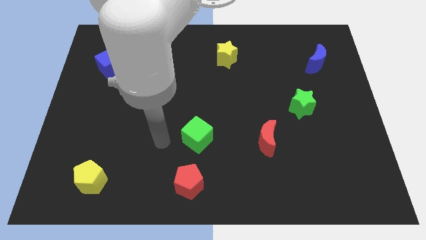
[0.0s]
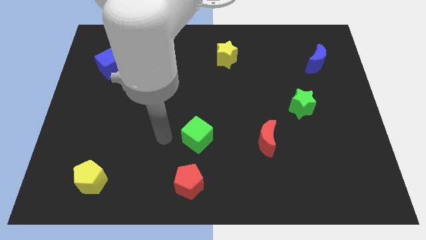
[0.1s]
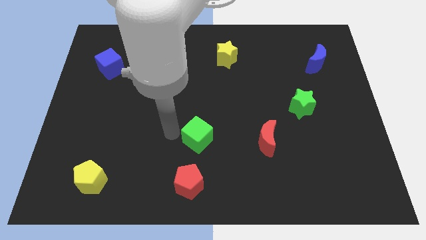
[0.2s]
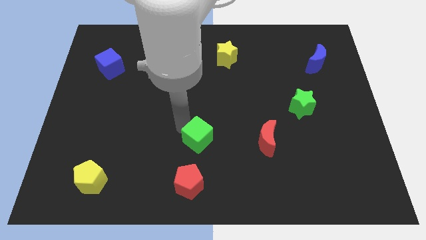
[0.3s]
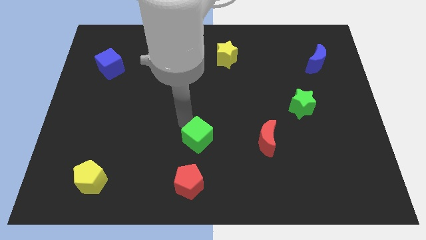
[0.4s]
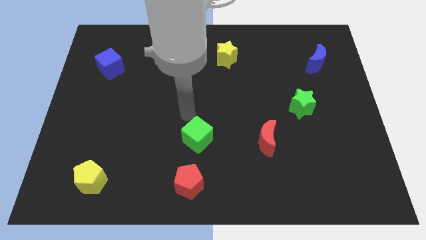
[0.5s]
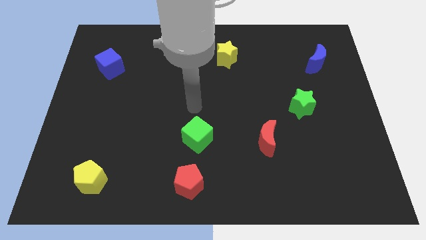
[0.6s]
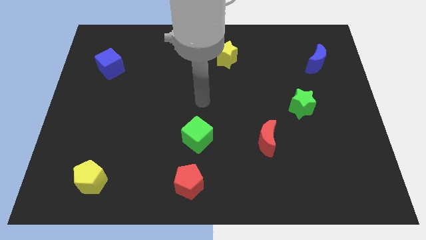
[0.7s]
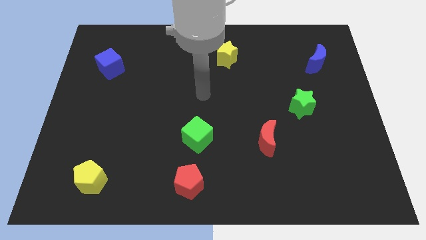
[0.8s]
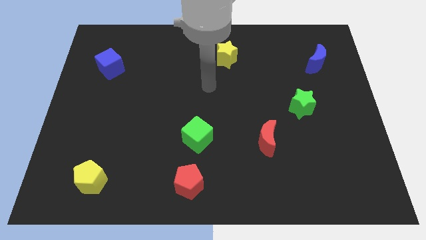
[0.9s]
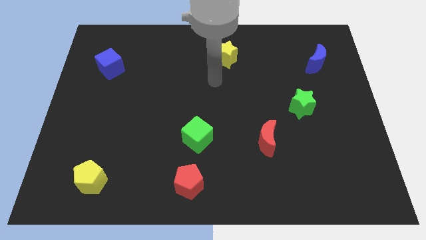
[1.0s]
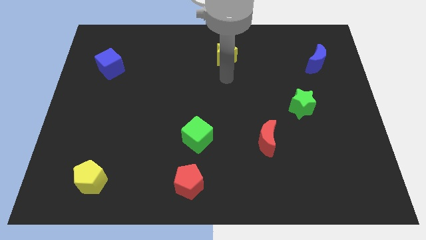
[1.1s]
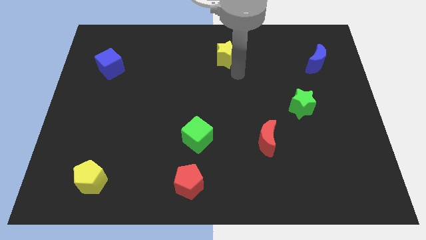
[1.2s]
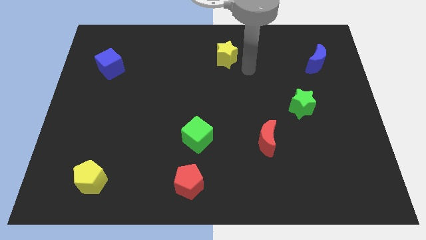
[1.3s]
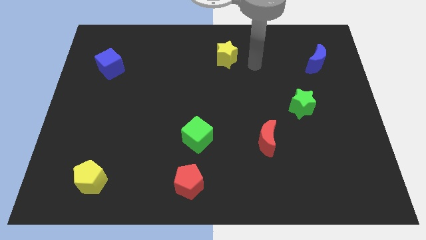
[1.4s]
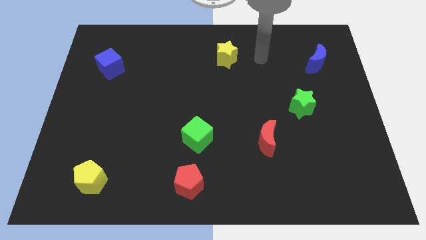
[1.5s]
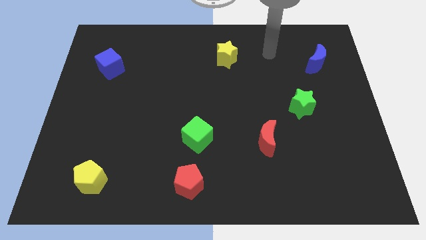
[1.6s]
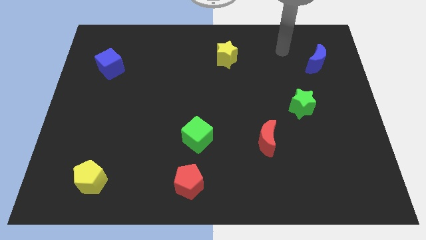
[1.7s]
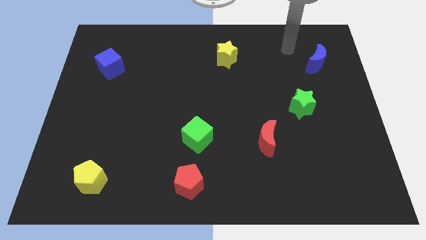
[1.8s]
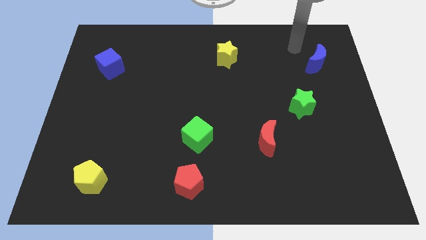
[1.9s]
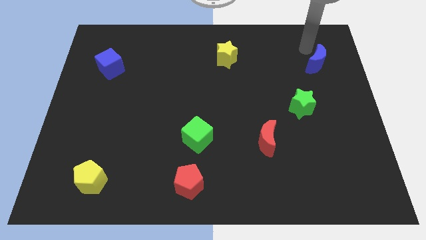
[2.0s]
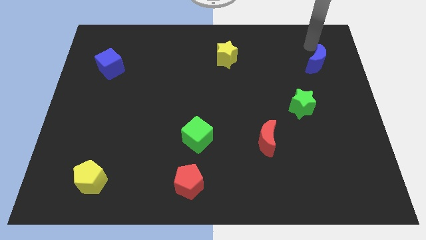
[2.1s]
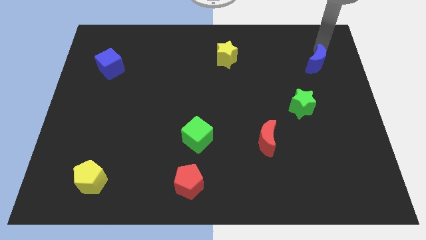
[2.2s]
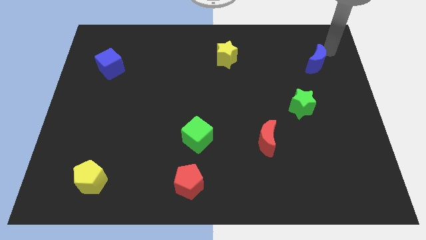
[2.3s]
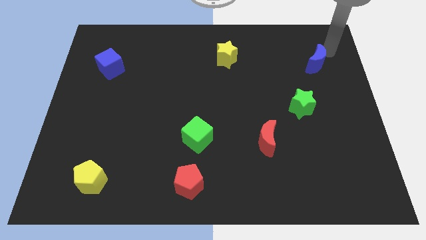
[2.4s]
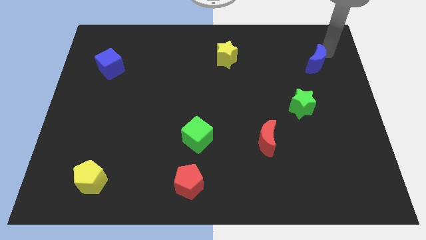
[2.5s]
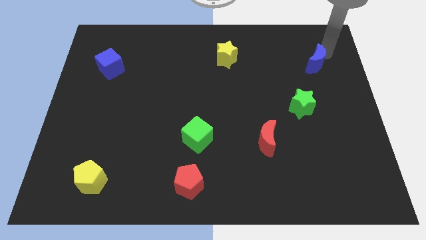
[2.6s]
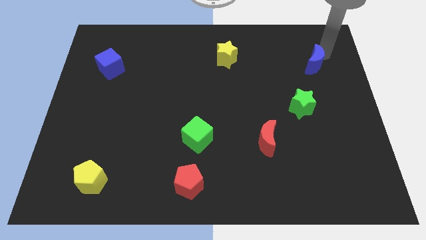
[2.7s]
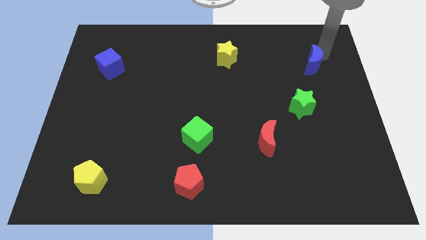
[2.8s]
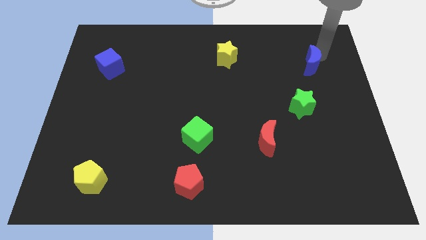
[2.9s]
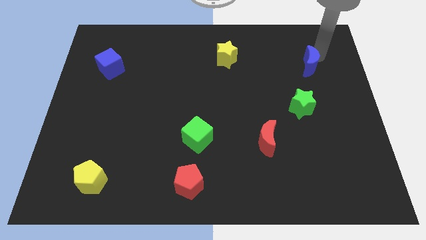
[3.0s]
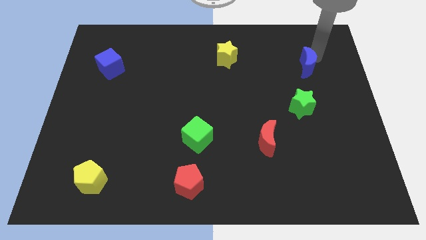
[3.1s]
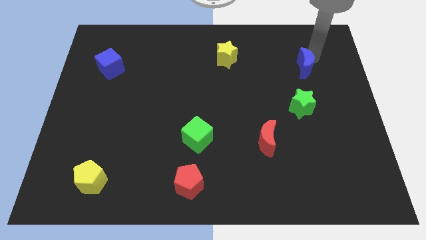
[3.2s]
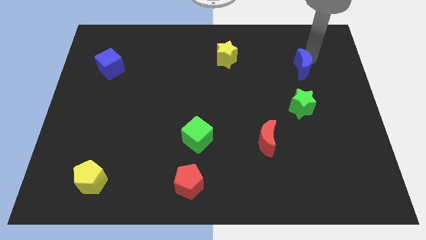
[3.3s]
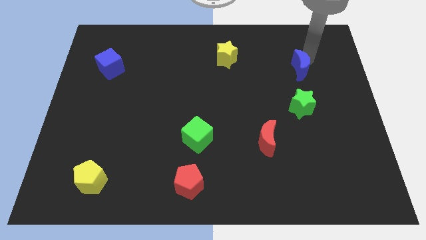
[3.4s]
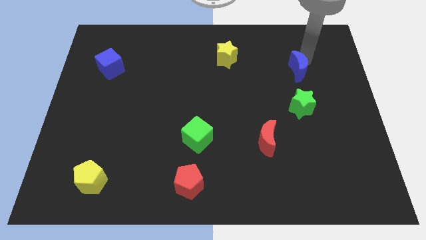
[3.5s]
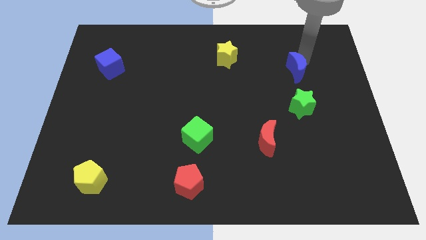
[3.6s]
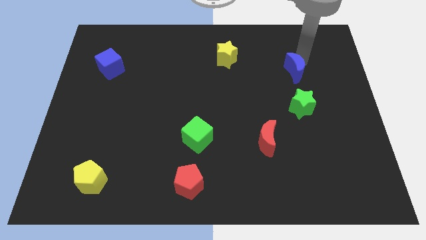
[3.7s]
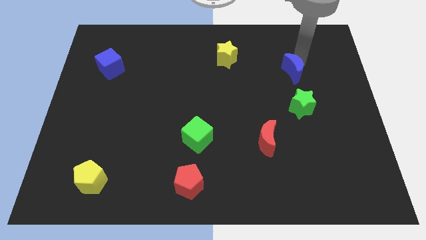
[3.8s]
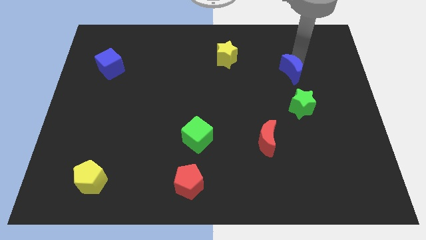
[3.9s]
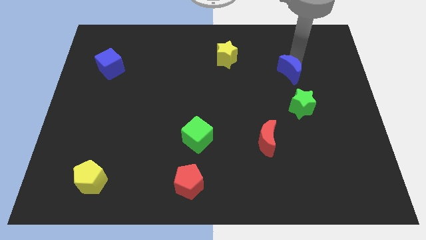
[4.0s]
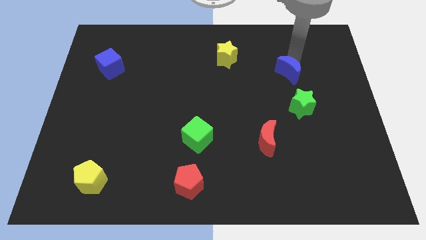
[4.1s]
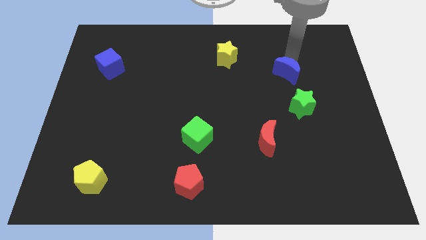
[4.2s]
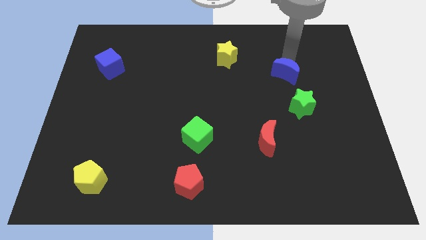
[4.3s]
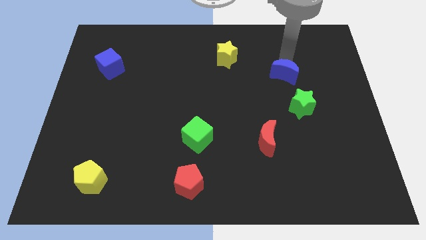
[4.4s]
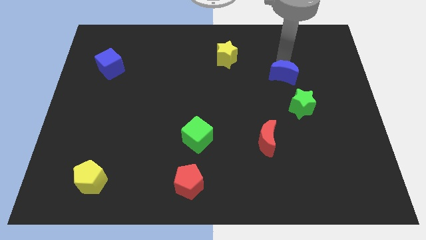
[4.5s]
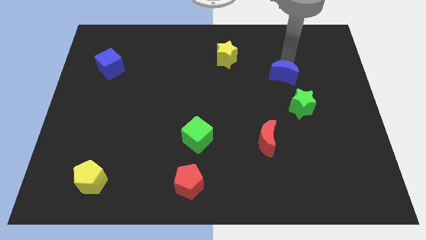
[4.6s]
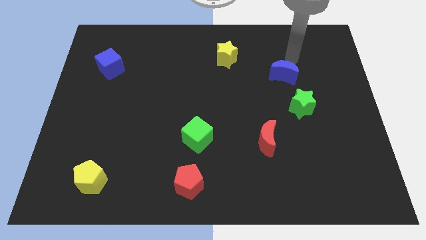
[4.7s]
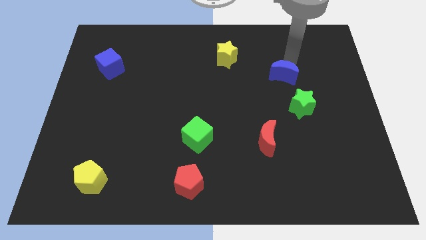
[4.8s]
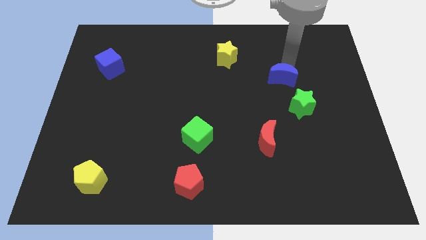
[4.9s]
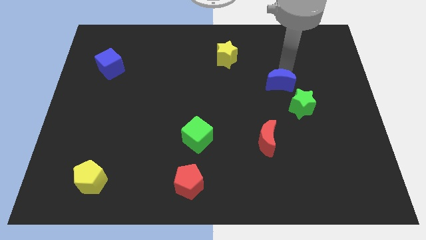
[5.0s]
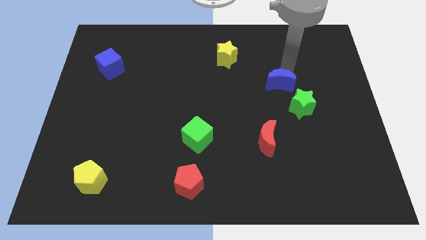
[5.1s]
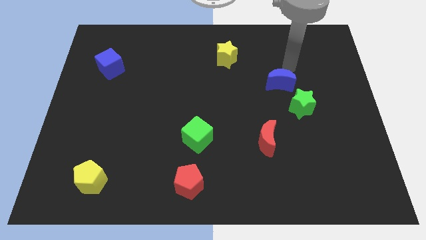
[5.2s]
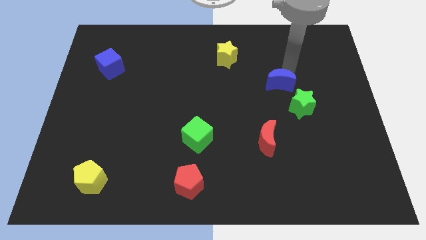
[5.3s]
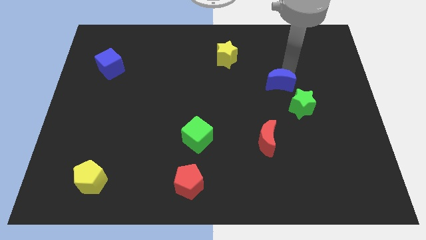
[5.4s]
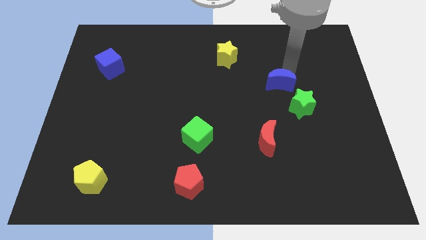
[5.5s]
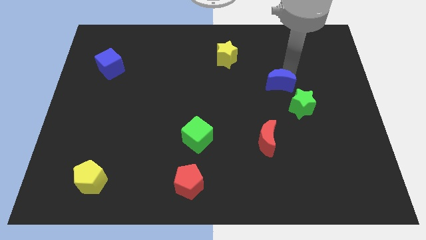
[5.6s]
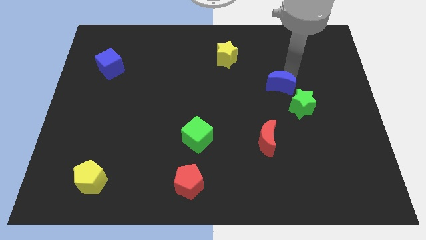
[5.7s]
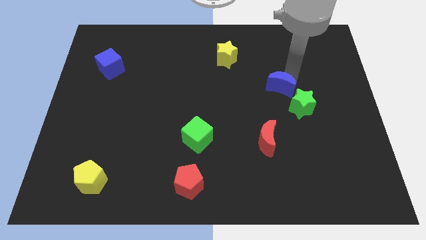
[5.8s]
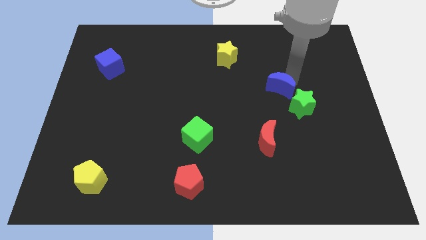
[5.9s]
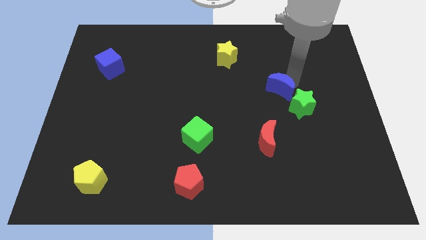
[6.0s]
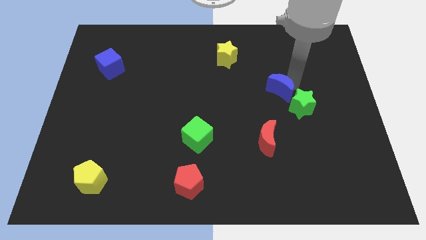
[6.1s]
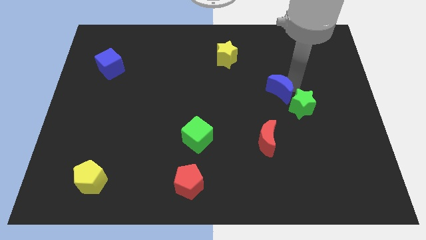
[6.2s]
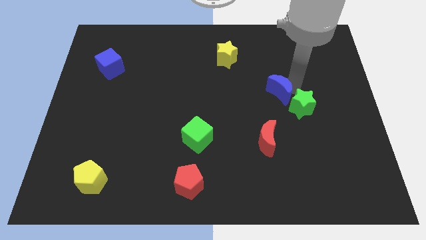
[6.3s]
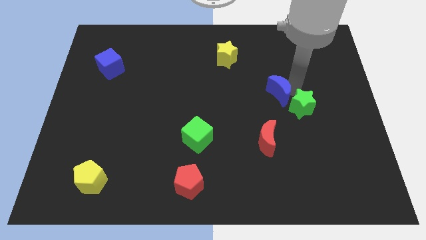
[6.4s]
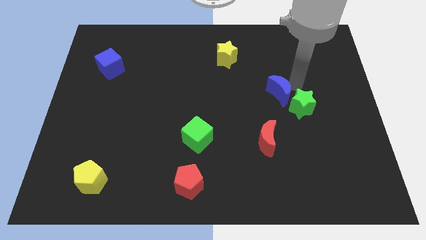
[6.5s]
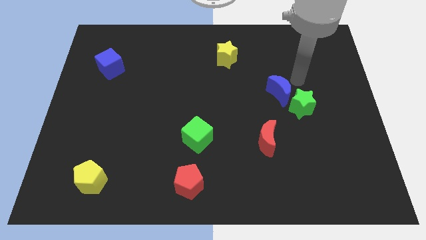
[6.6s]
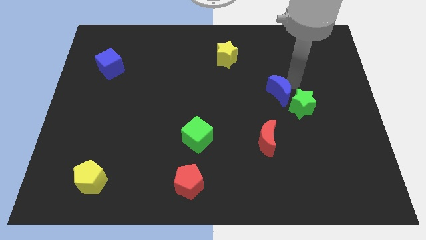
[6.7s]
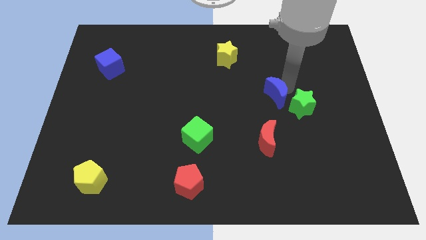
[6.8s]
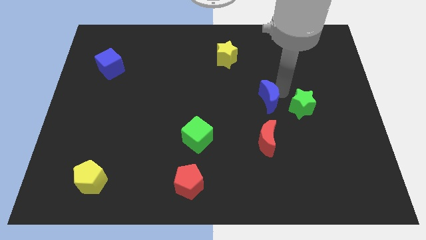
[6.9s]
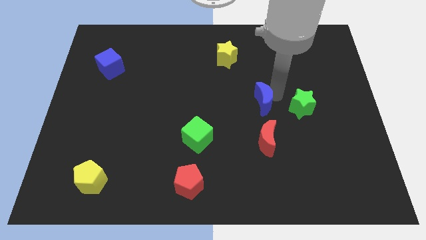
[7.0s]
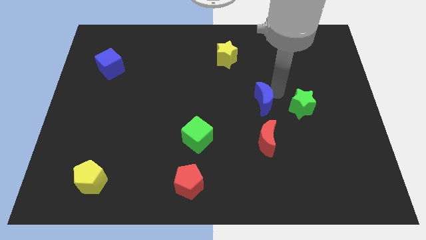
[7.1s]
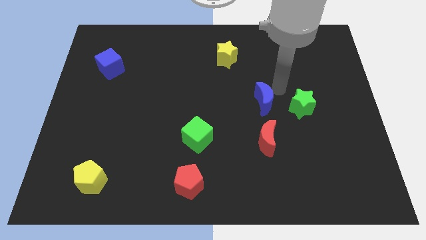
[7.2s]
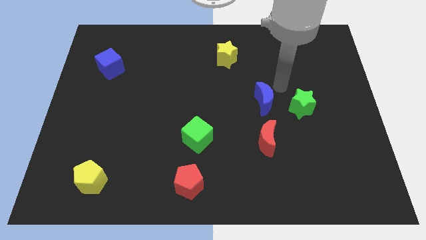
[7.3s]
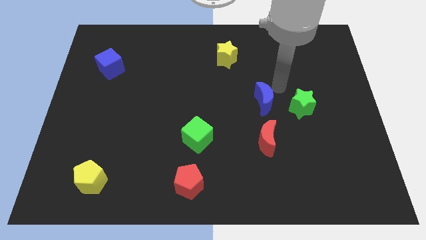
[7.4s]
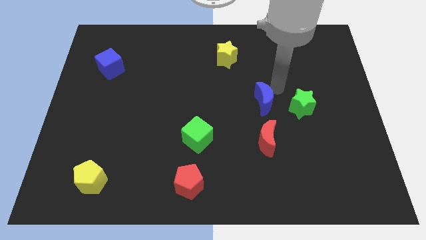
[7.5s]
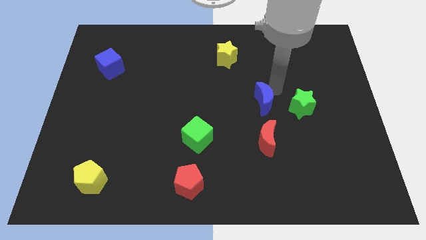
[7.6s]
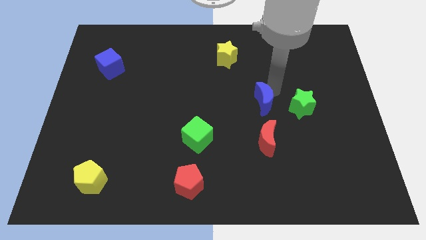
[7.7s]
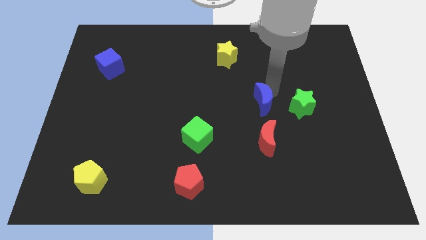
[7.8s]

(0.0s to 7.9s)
move the blue moon down and left diagonally
